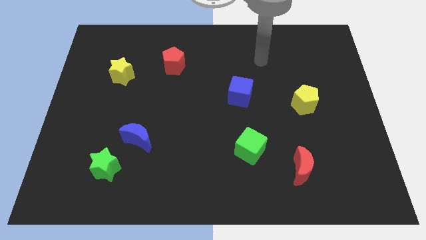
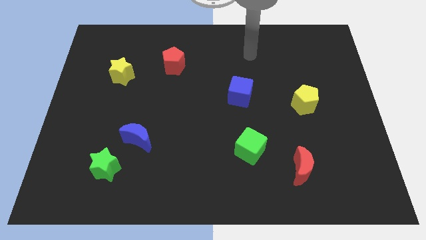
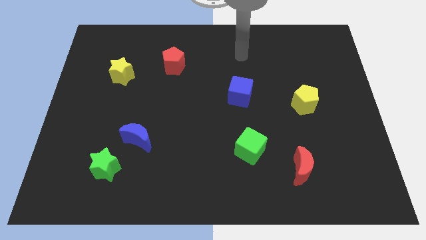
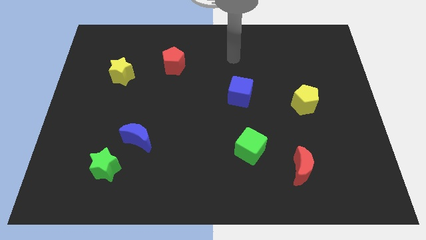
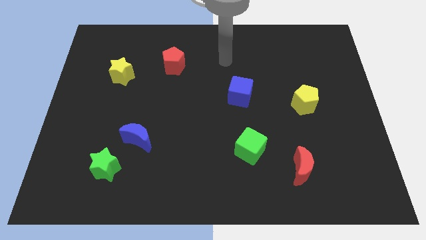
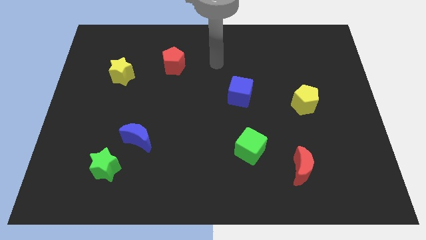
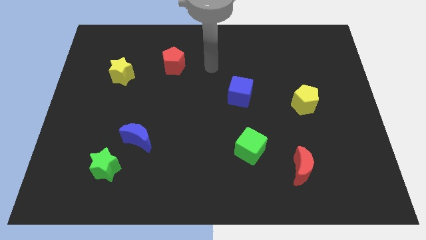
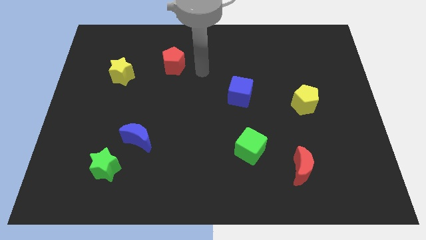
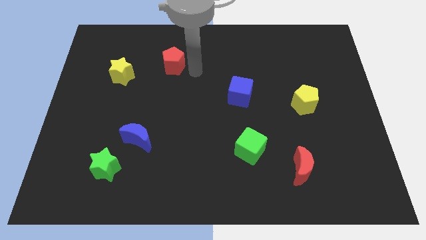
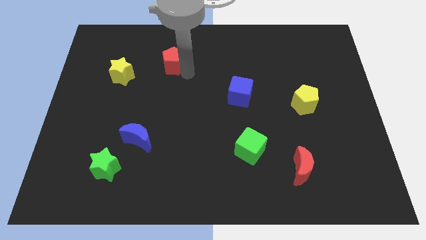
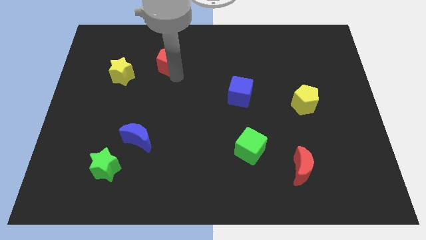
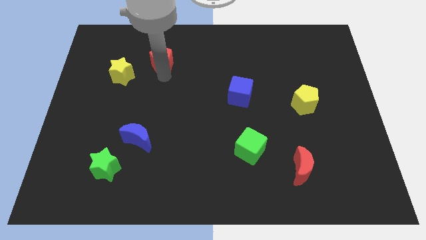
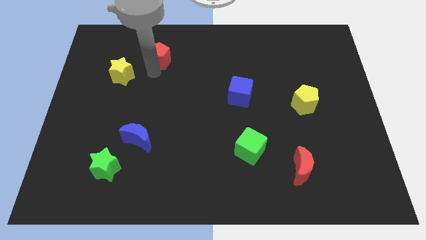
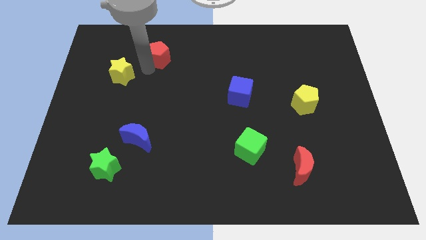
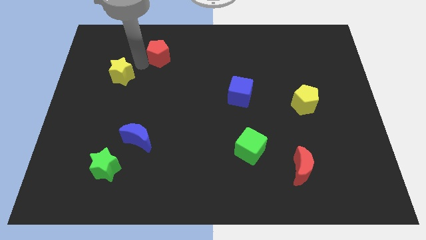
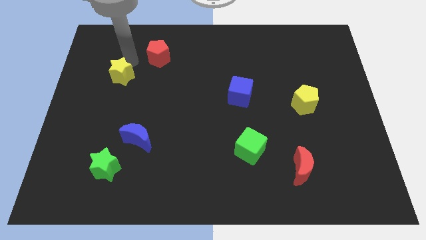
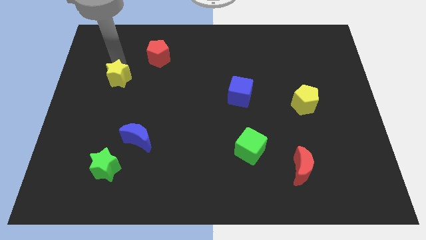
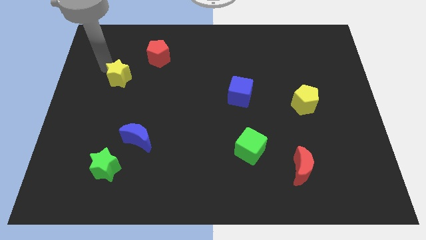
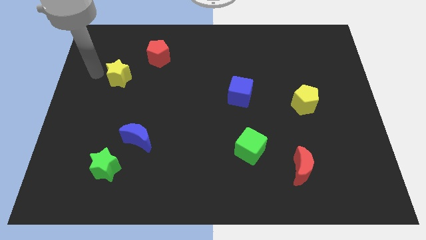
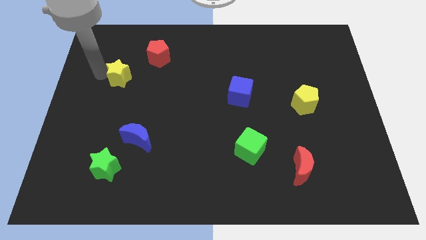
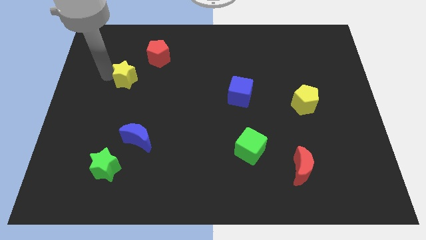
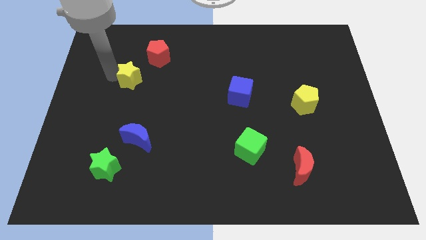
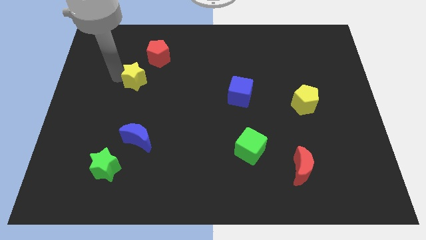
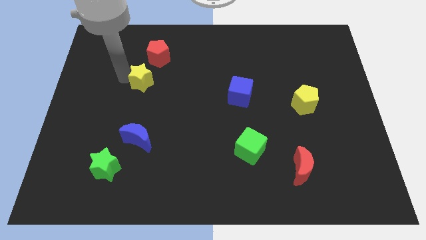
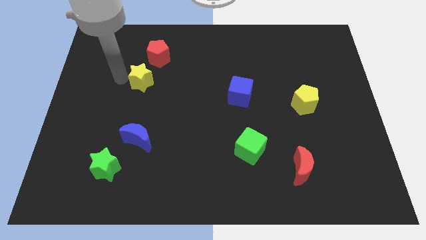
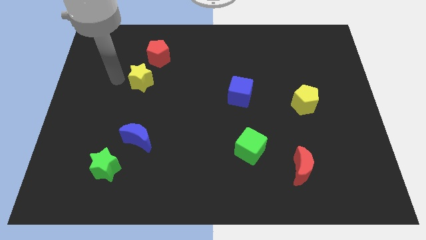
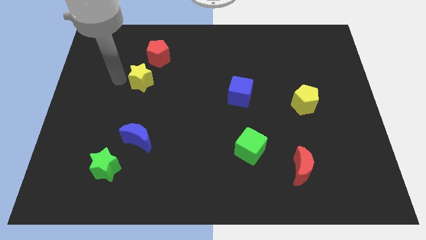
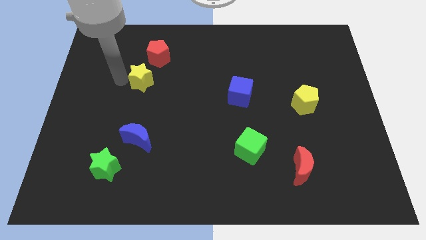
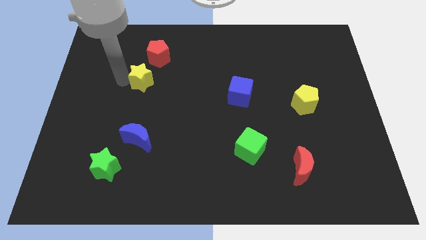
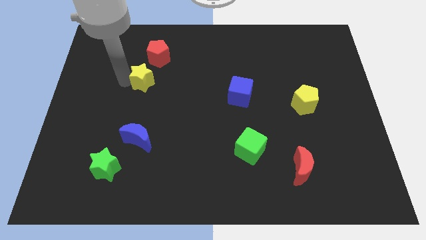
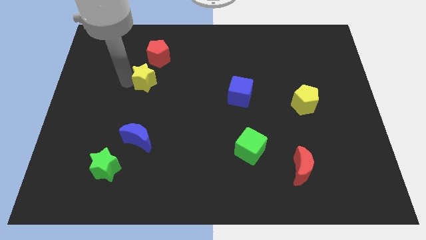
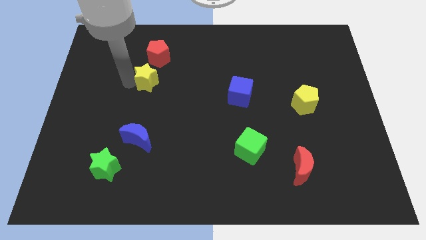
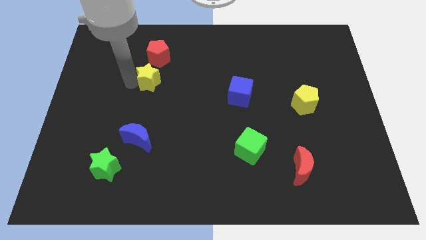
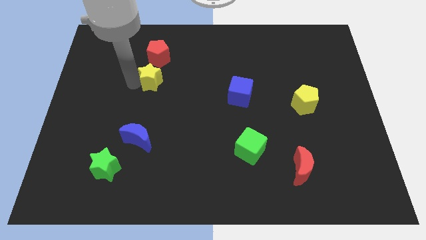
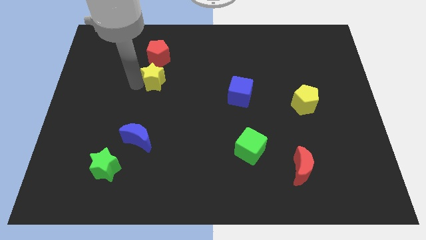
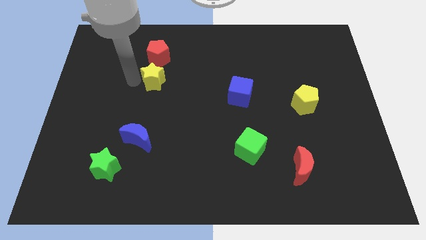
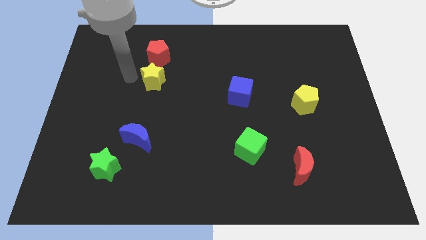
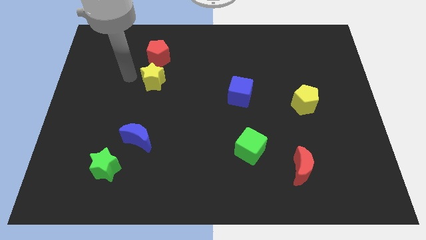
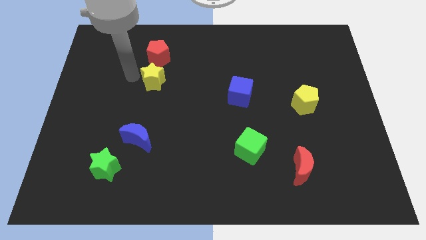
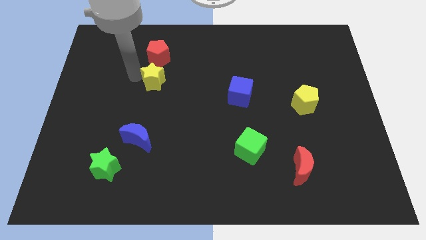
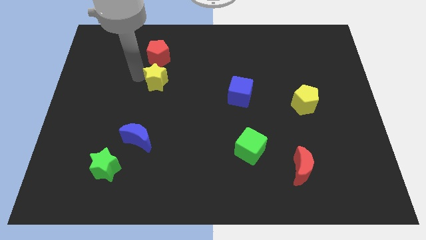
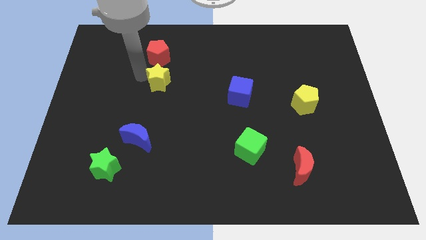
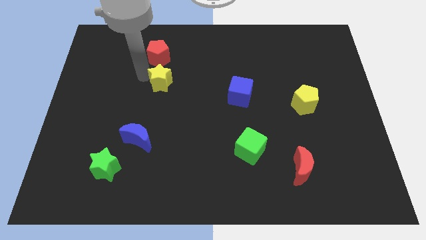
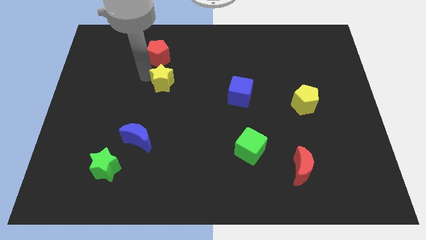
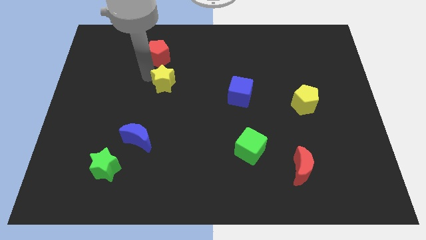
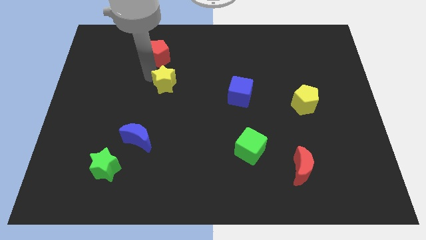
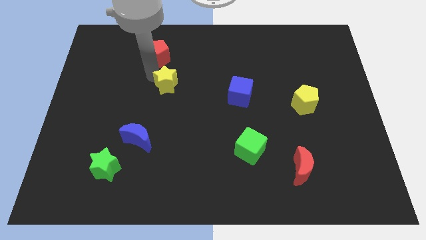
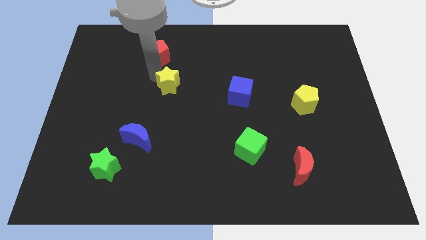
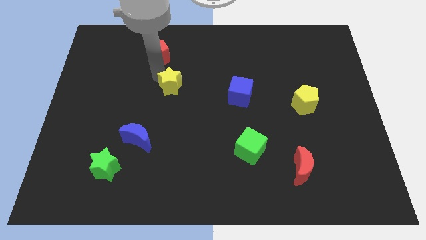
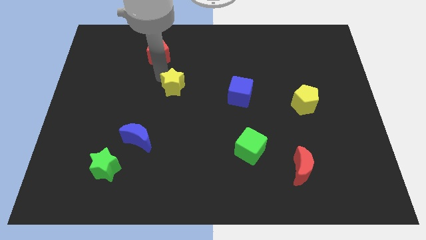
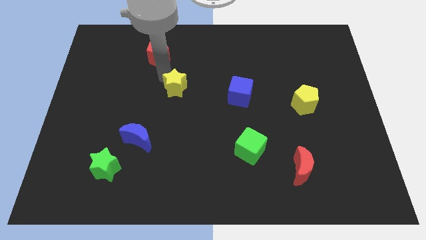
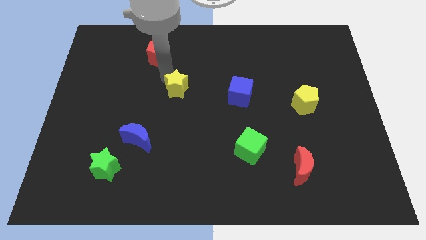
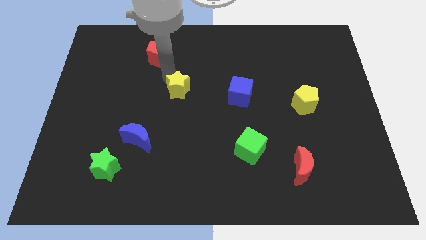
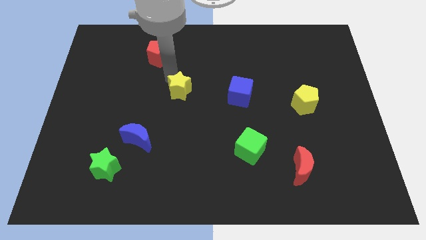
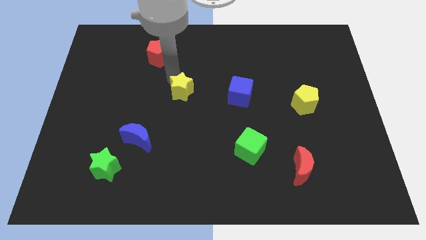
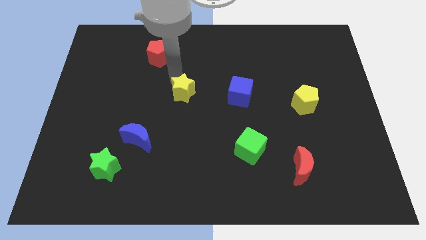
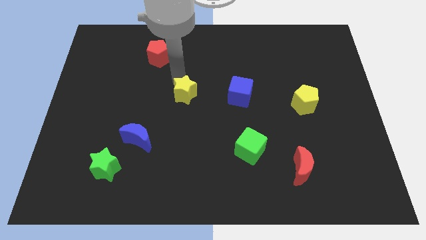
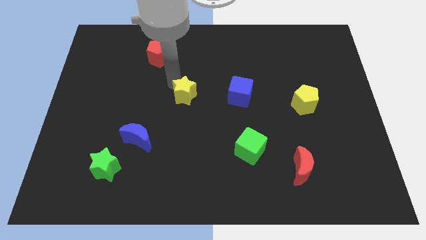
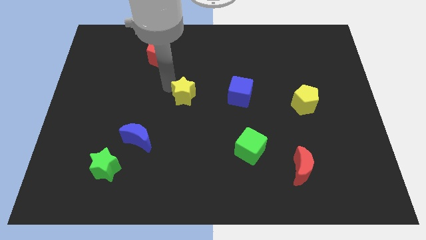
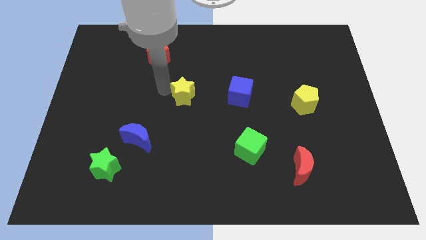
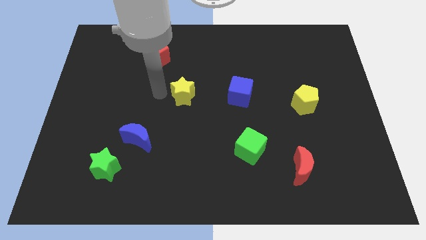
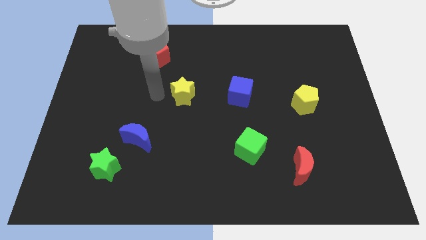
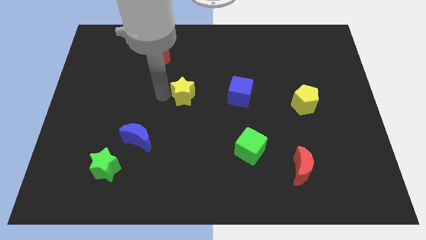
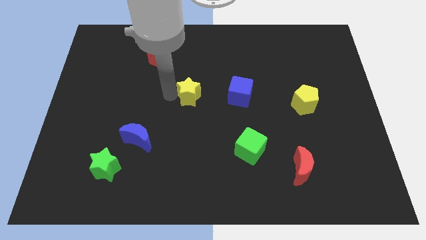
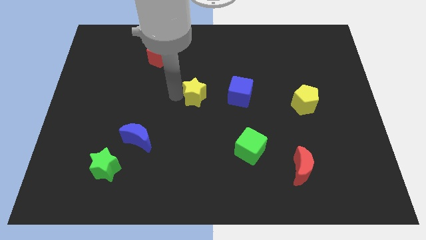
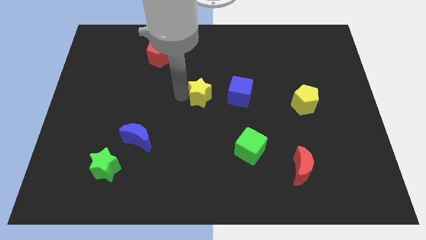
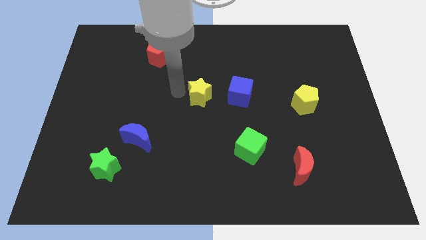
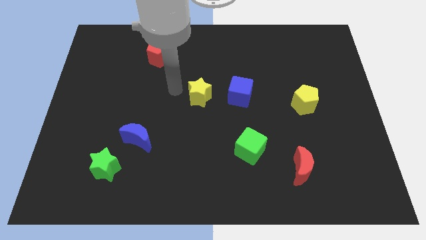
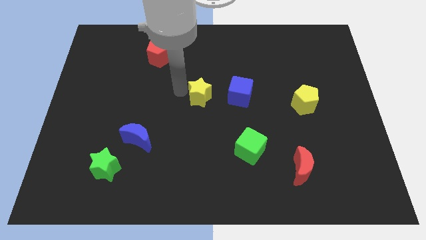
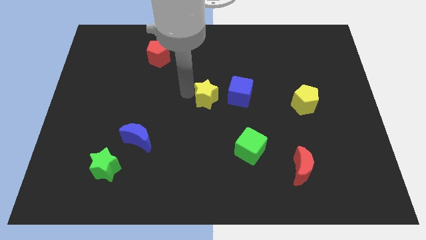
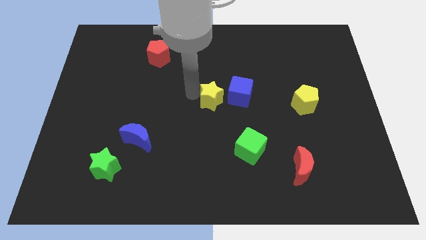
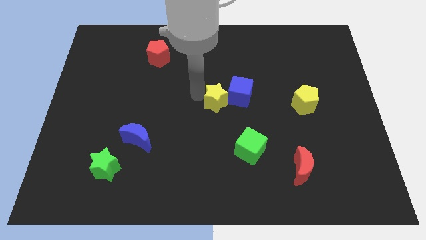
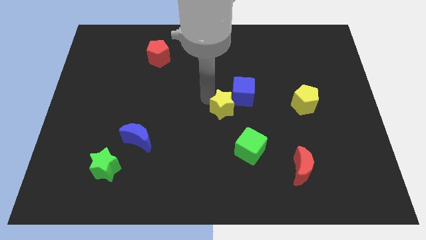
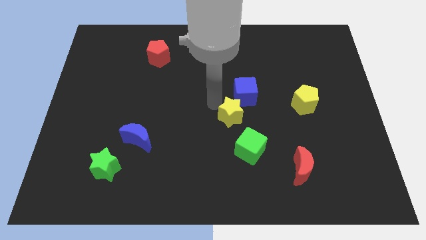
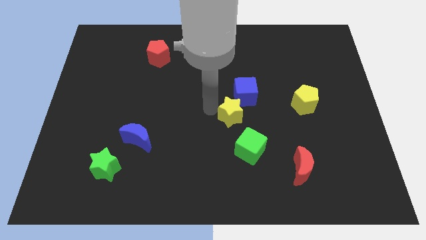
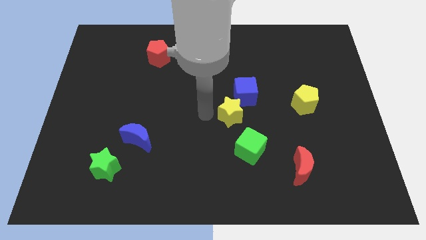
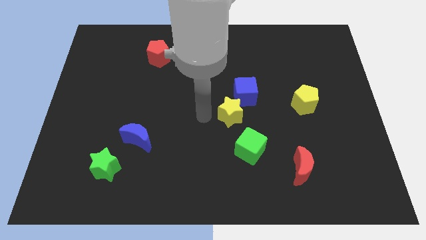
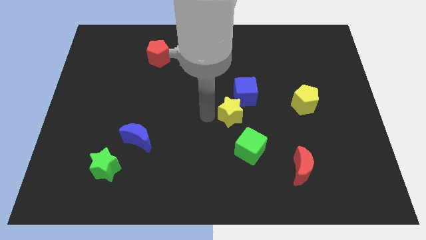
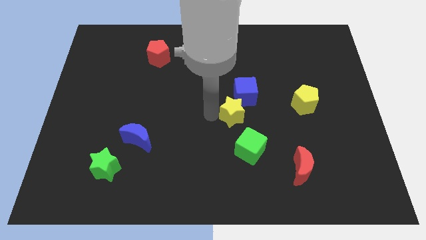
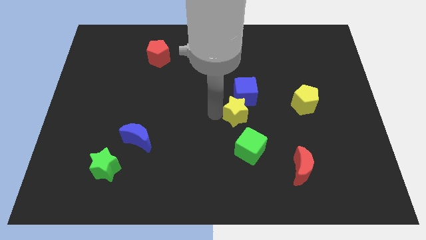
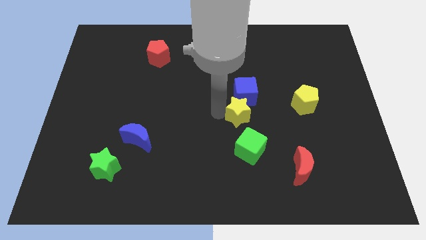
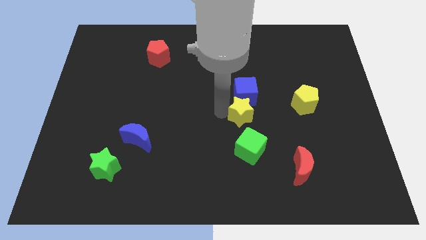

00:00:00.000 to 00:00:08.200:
slide the yellow star diagonally down and to the right of the blue cube
